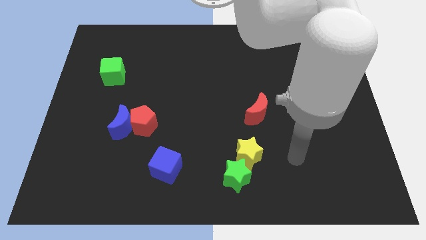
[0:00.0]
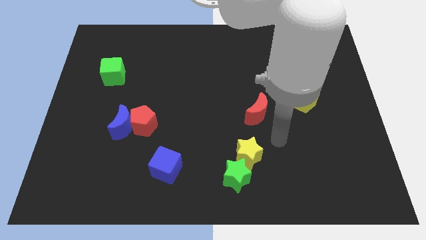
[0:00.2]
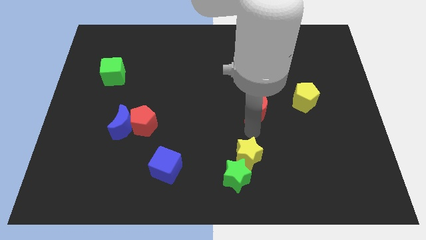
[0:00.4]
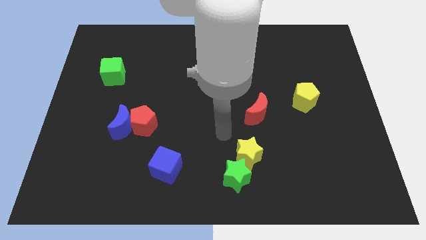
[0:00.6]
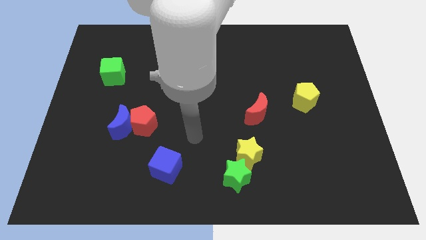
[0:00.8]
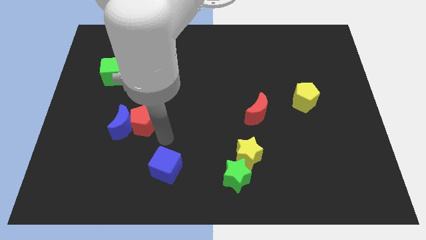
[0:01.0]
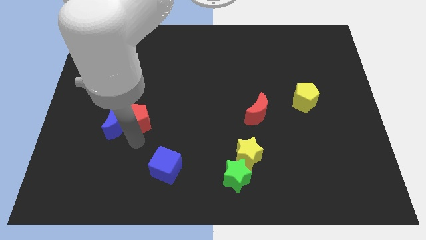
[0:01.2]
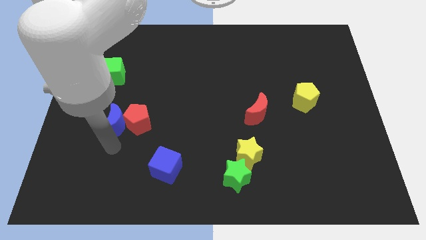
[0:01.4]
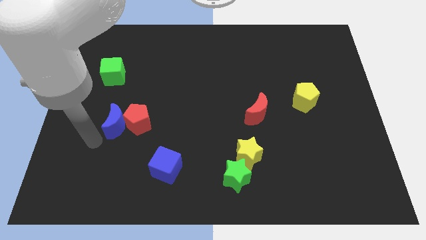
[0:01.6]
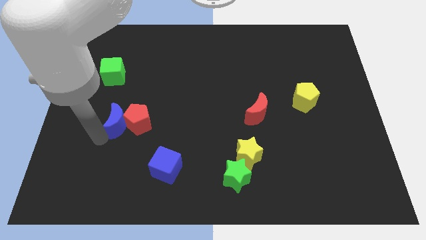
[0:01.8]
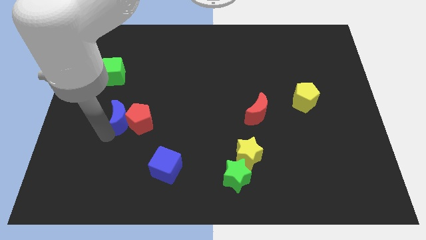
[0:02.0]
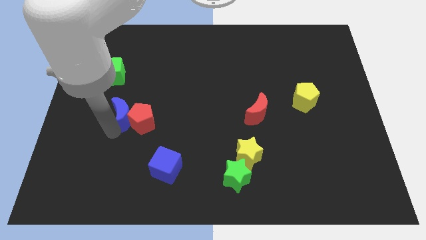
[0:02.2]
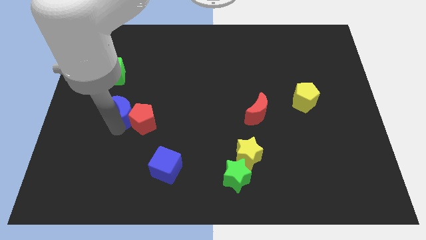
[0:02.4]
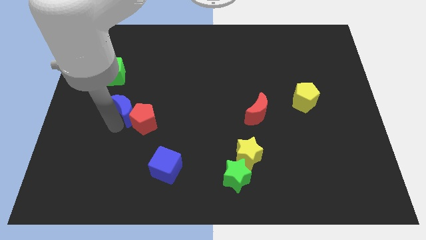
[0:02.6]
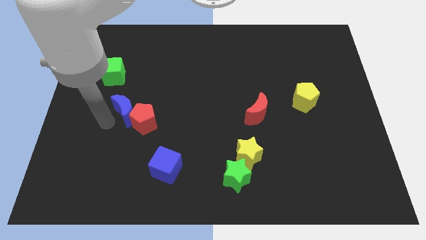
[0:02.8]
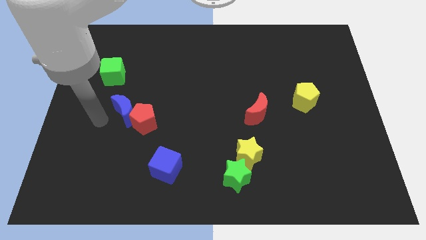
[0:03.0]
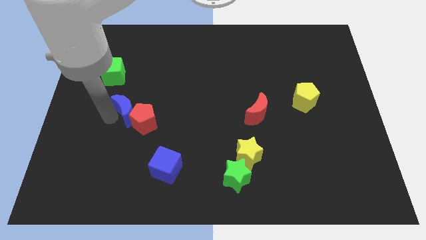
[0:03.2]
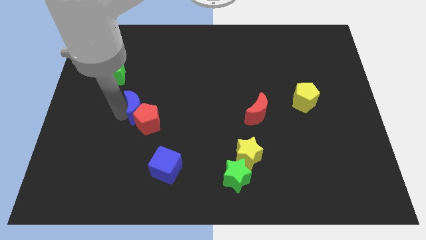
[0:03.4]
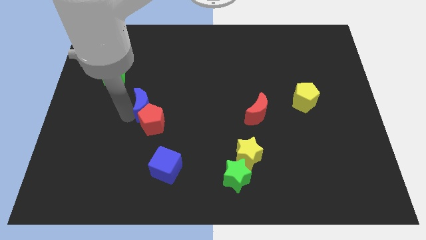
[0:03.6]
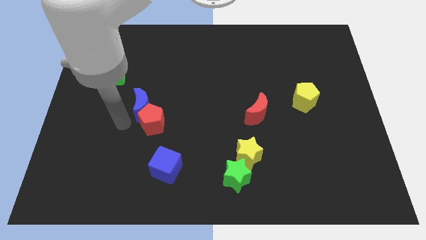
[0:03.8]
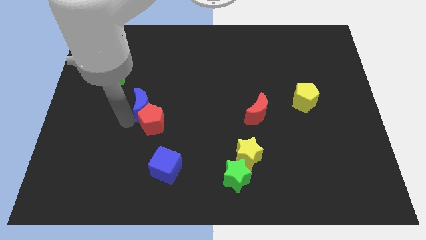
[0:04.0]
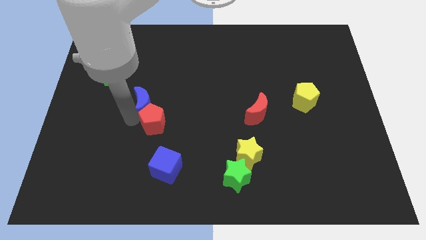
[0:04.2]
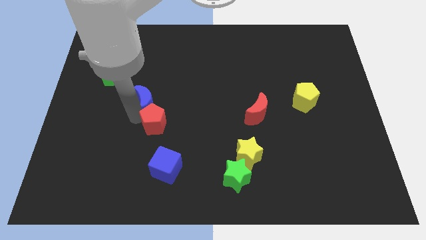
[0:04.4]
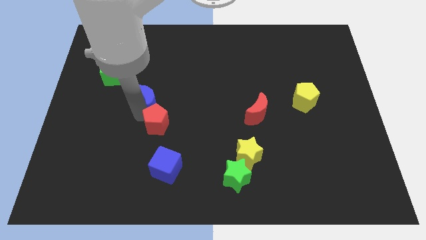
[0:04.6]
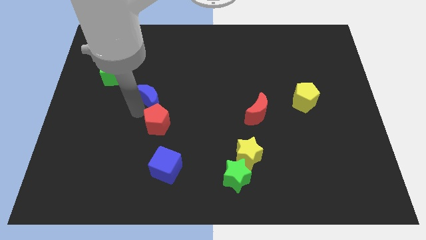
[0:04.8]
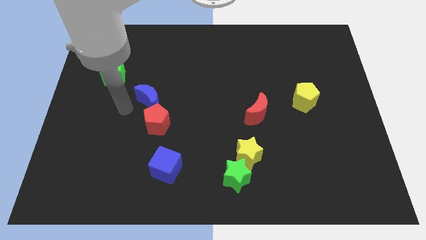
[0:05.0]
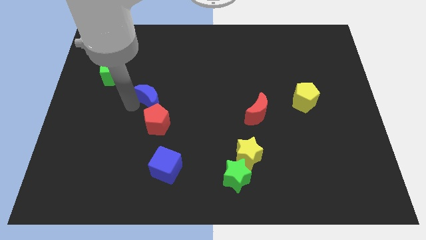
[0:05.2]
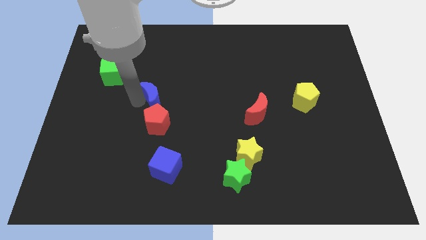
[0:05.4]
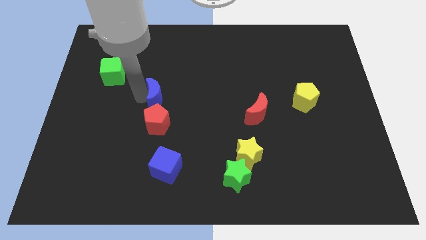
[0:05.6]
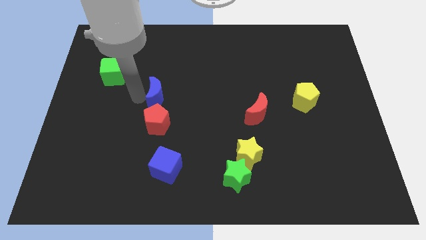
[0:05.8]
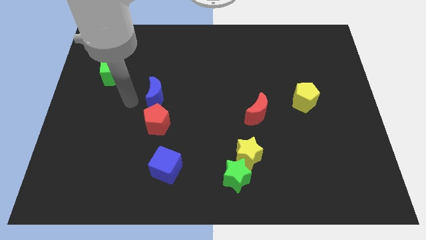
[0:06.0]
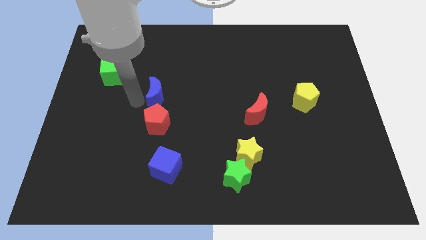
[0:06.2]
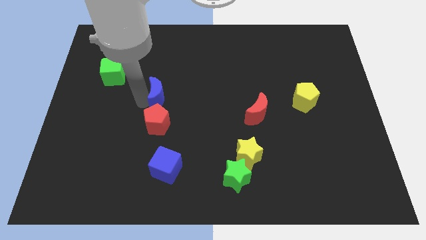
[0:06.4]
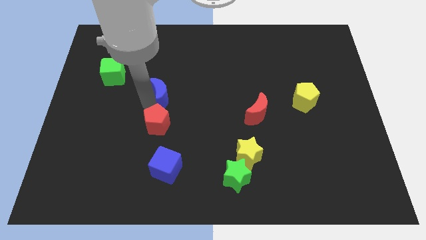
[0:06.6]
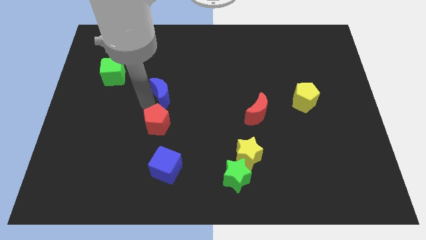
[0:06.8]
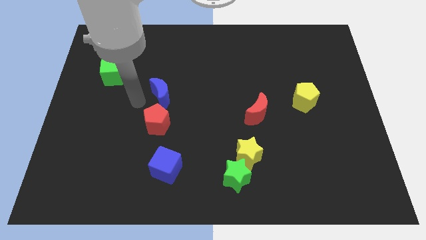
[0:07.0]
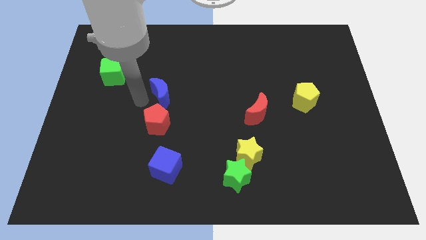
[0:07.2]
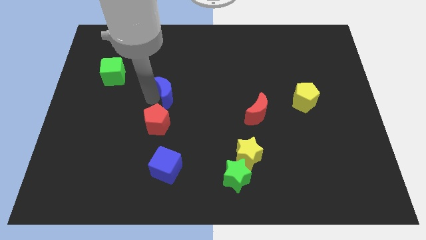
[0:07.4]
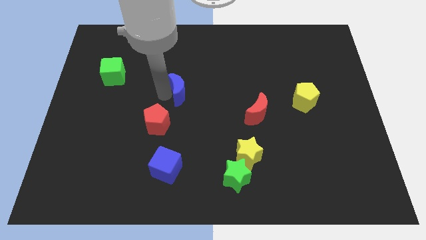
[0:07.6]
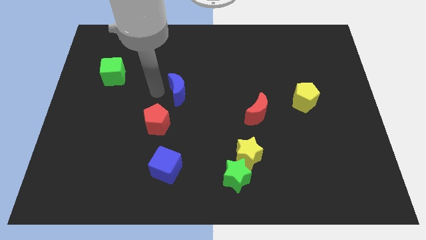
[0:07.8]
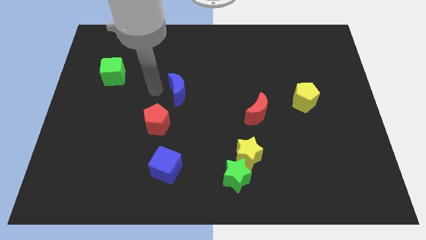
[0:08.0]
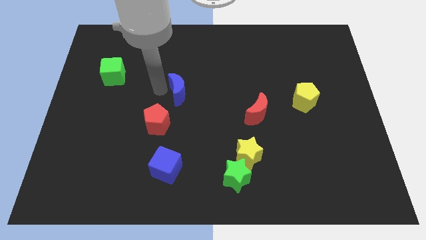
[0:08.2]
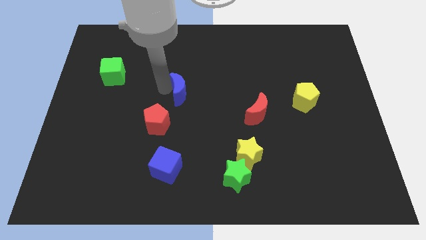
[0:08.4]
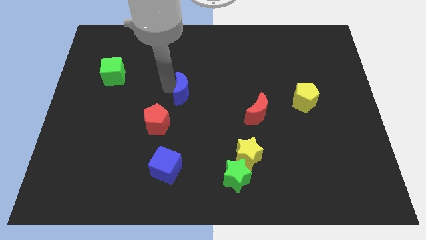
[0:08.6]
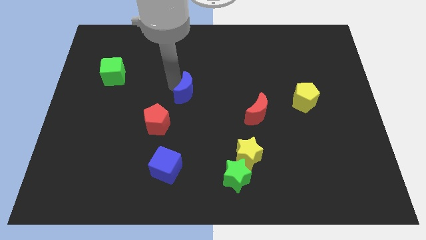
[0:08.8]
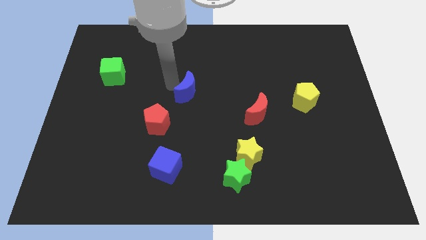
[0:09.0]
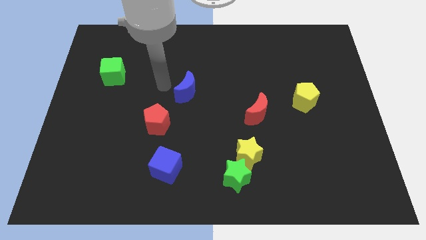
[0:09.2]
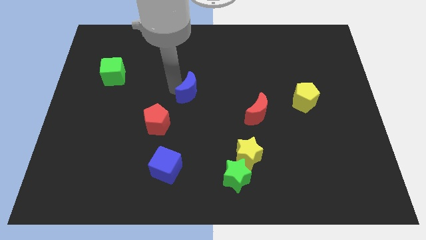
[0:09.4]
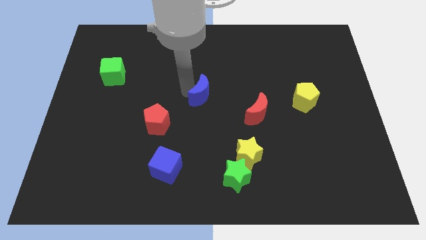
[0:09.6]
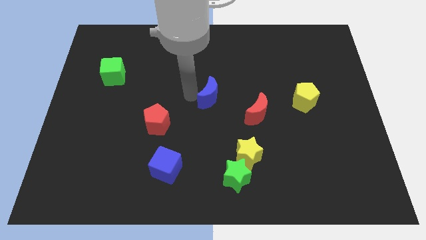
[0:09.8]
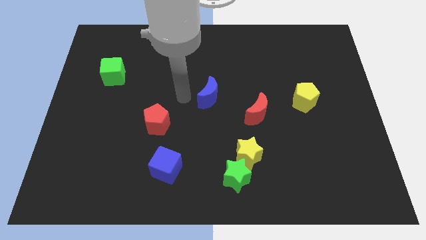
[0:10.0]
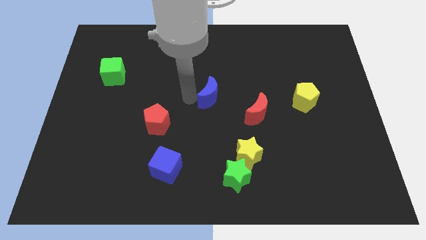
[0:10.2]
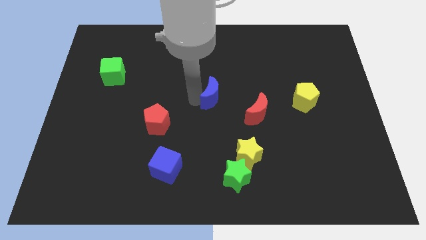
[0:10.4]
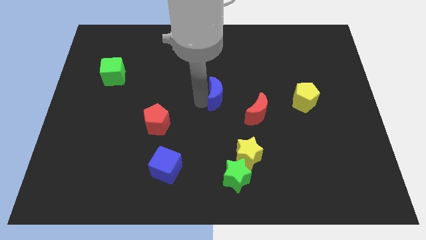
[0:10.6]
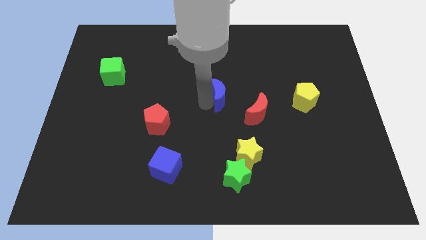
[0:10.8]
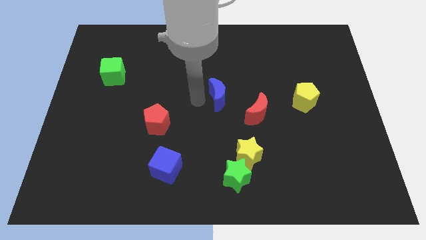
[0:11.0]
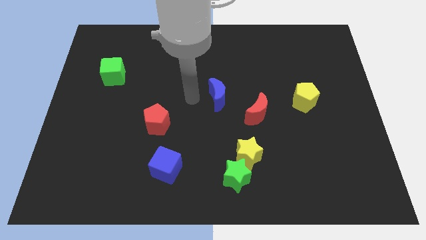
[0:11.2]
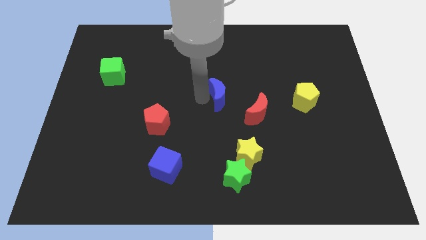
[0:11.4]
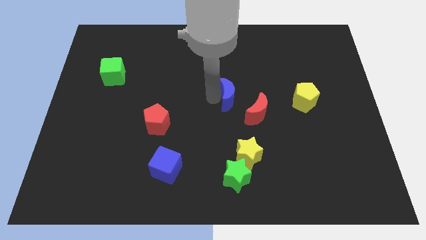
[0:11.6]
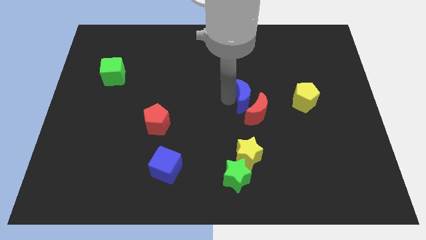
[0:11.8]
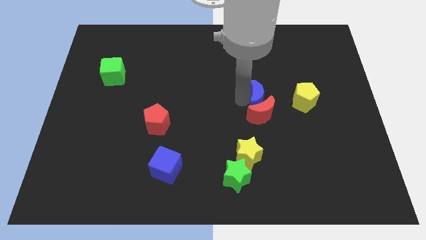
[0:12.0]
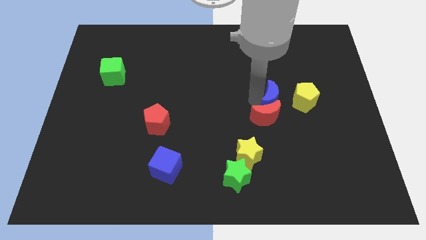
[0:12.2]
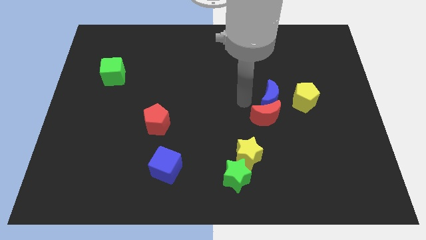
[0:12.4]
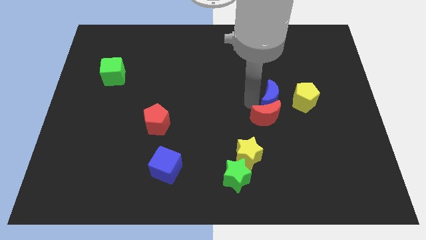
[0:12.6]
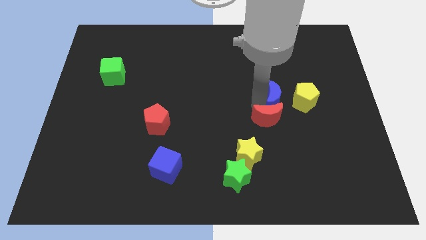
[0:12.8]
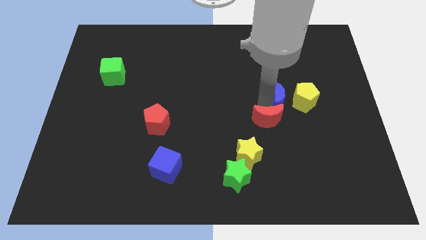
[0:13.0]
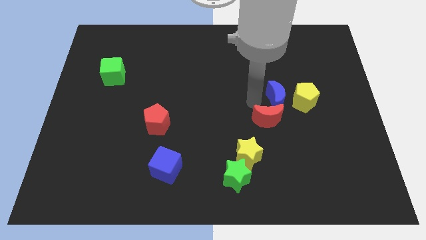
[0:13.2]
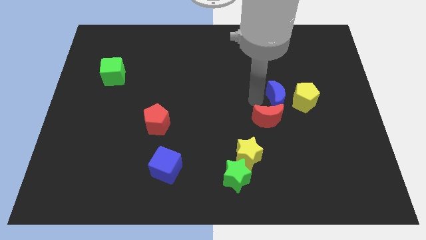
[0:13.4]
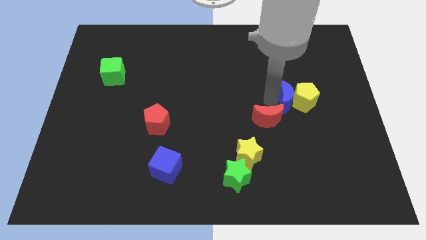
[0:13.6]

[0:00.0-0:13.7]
push the blue moon towards the yellow pentagon
